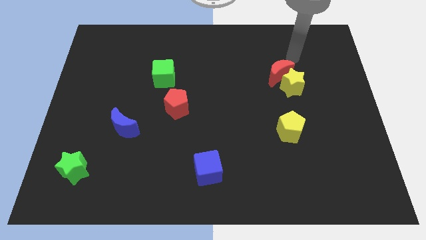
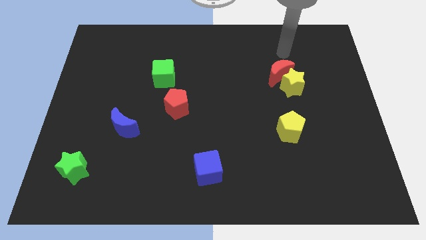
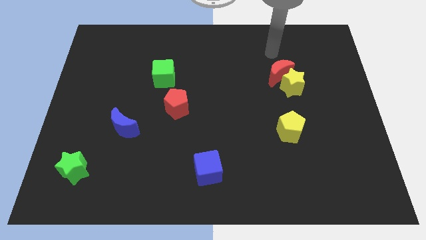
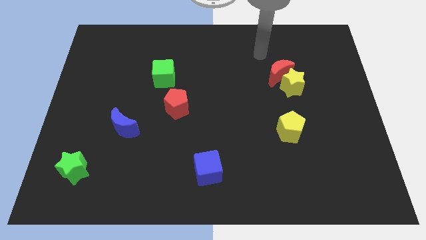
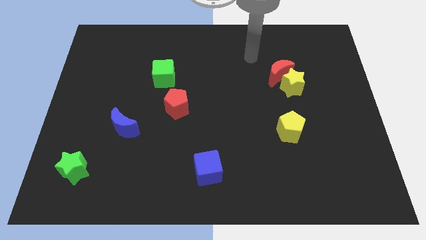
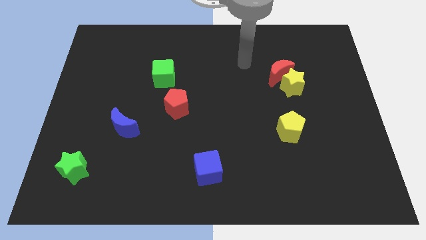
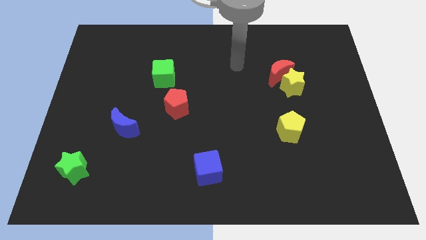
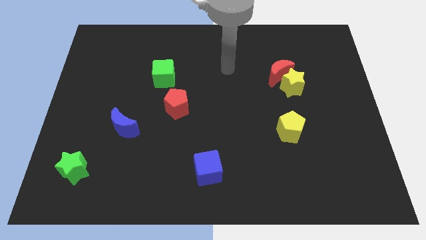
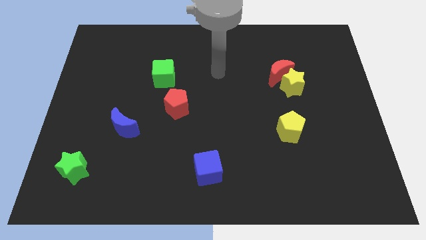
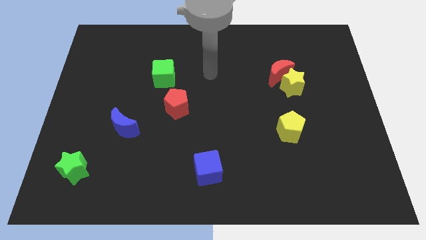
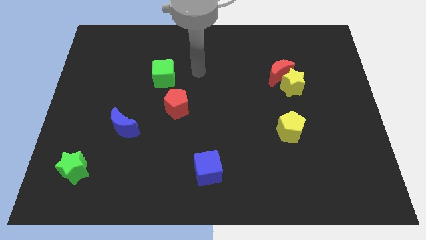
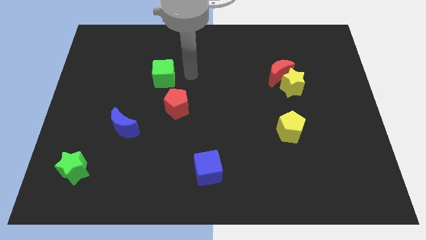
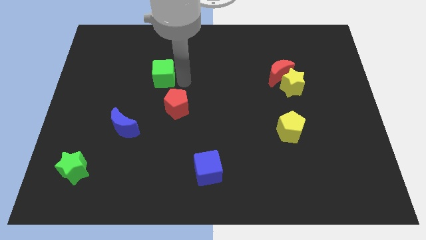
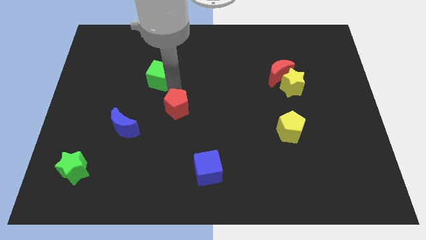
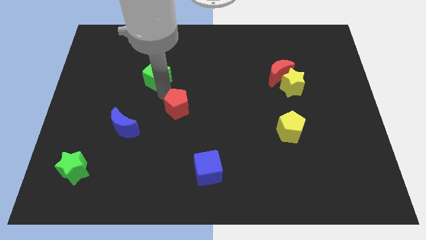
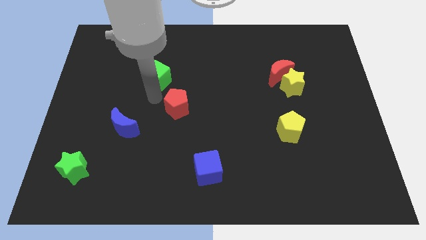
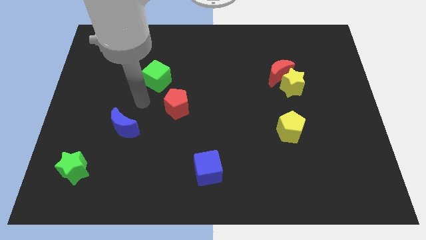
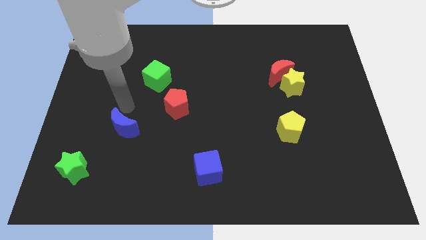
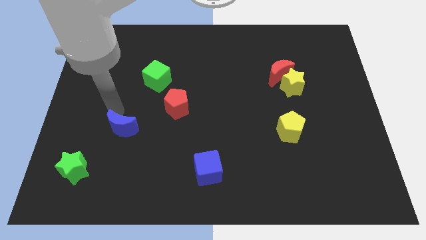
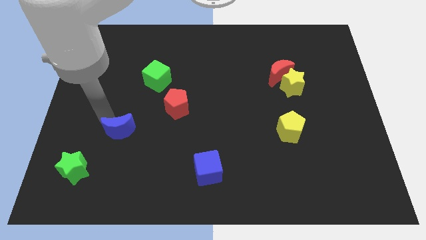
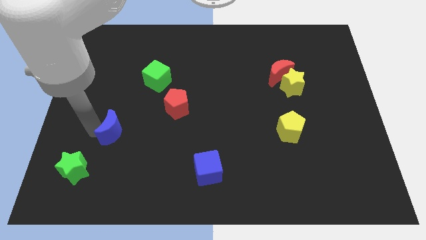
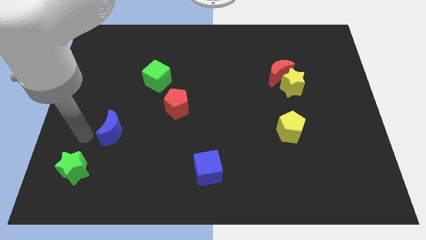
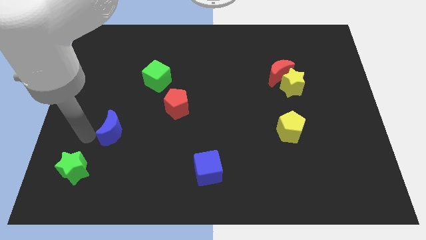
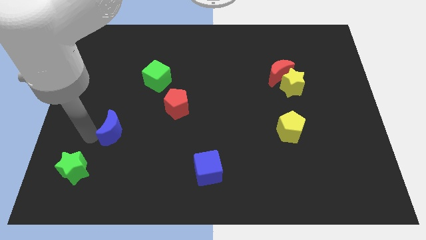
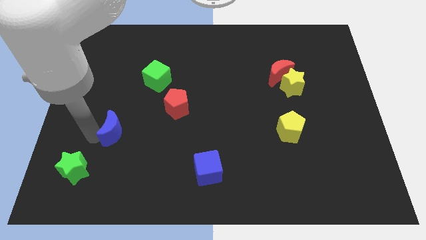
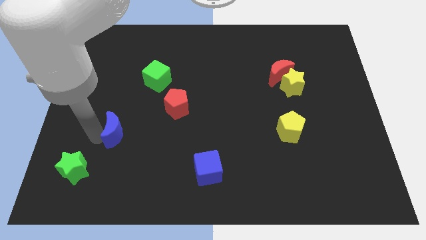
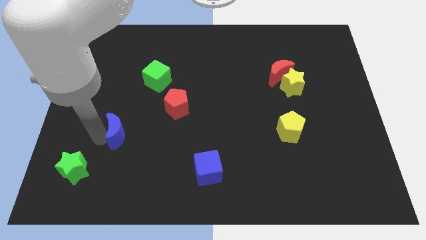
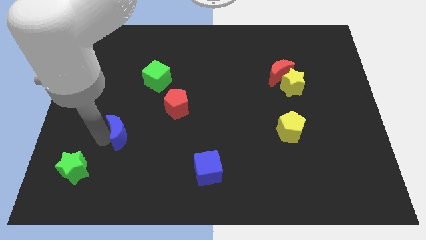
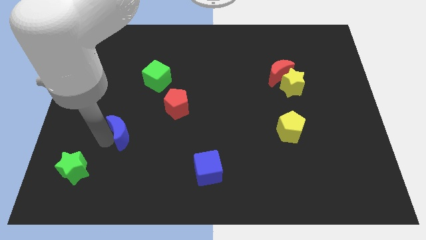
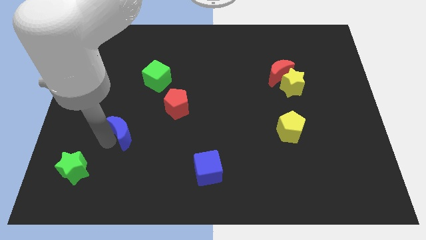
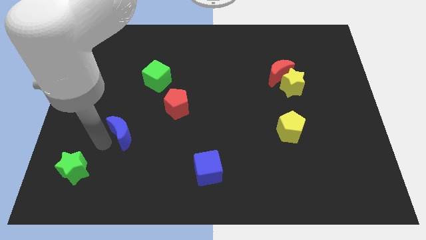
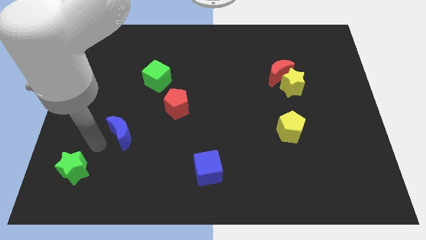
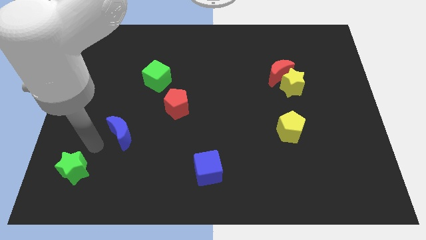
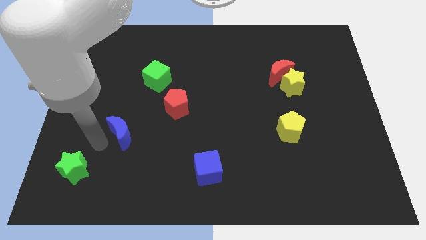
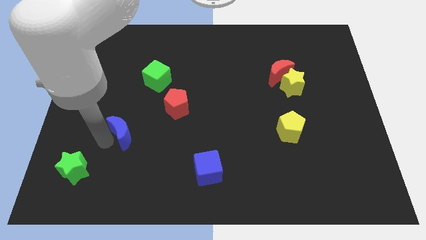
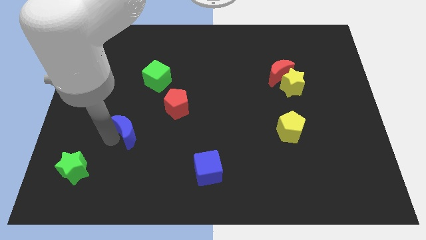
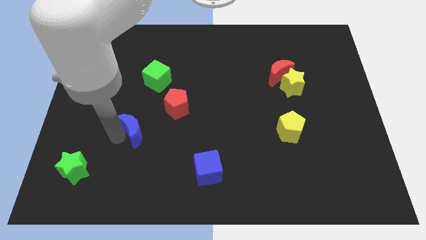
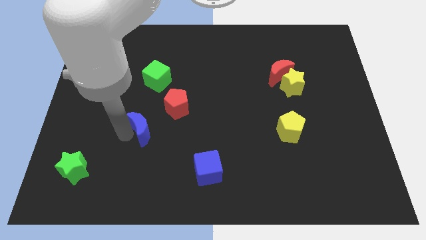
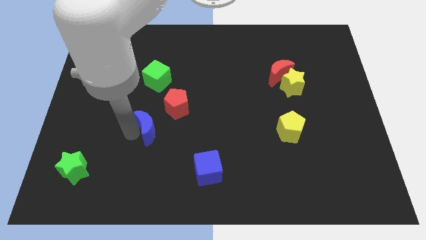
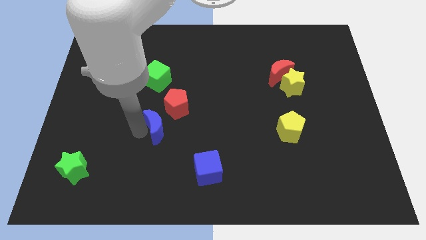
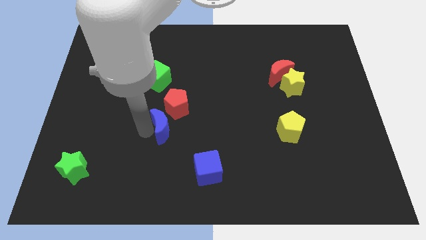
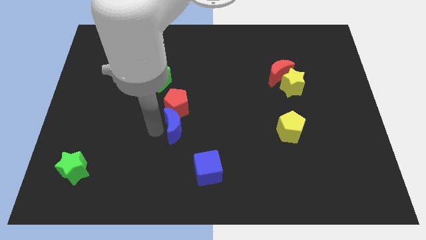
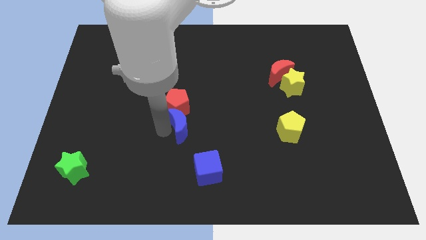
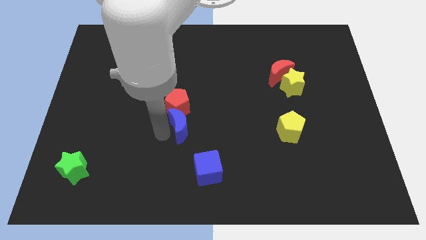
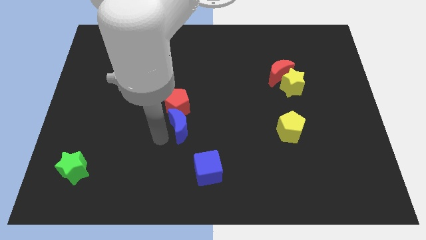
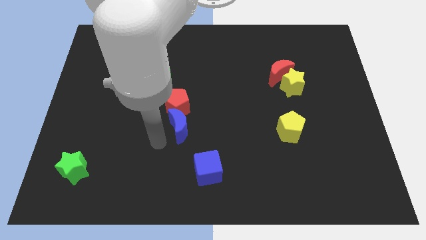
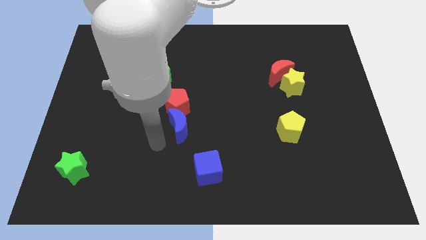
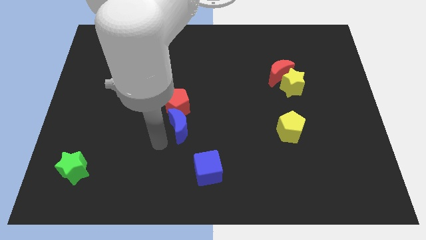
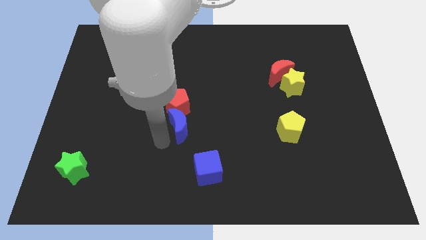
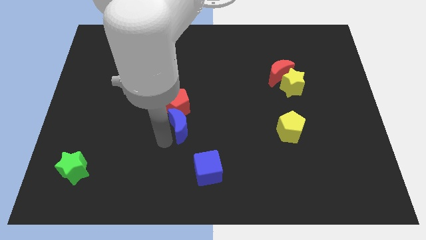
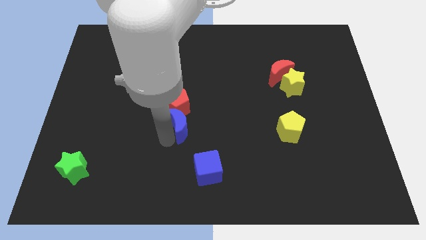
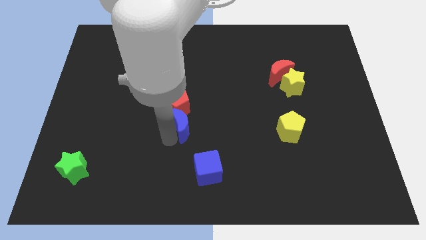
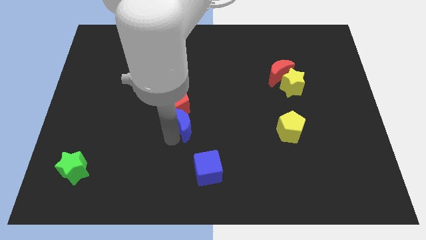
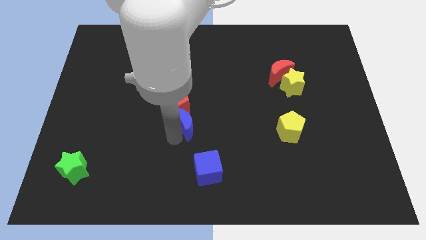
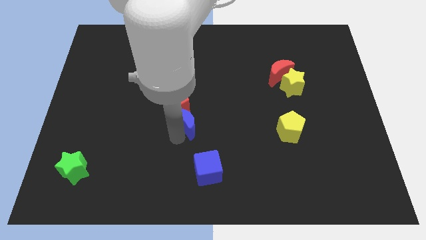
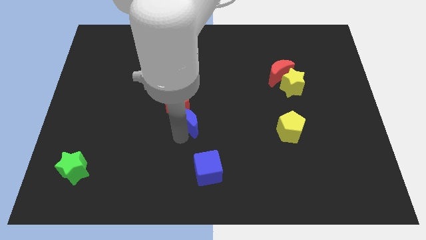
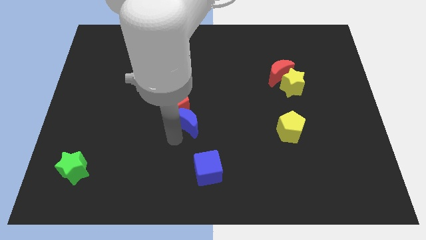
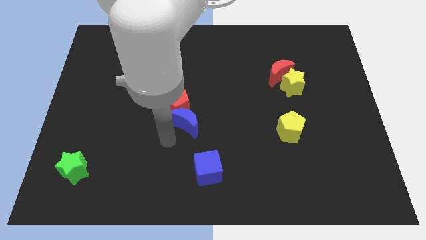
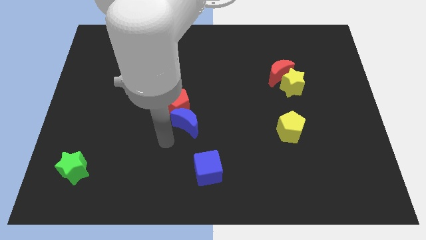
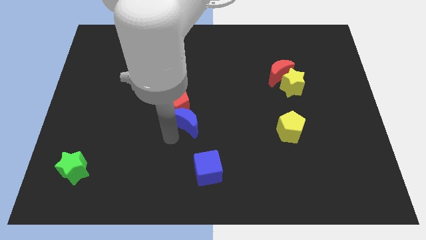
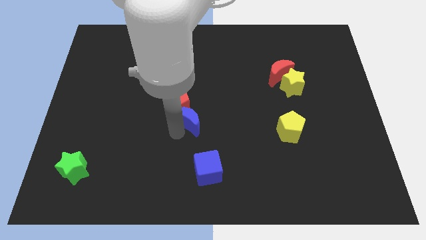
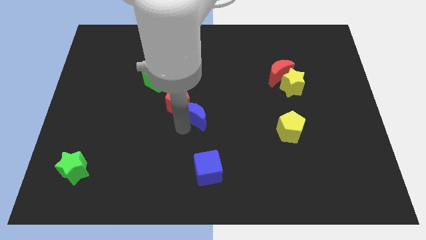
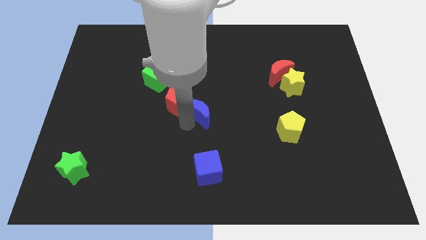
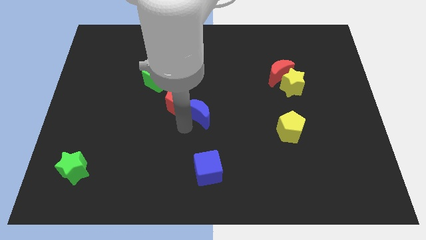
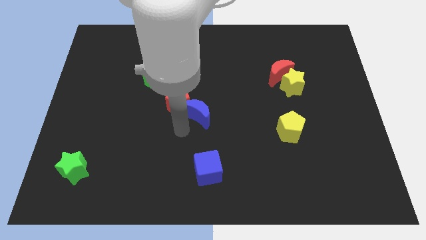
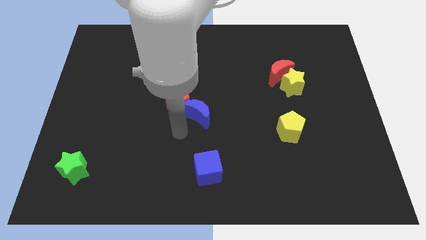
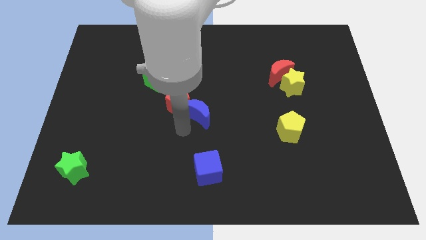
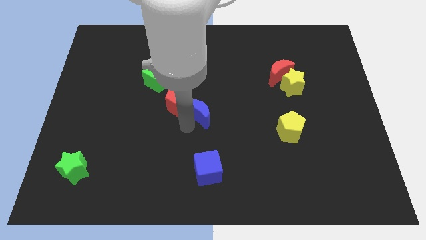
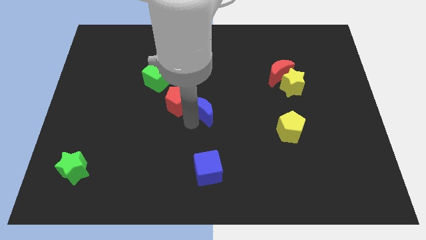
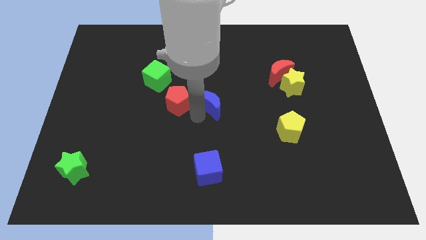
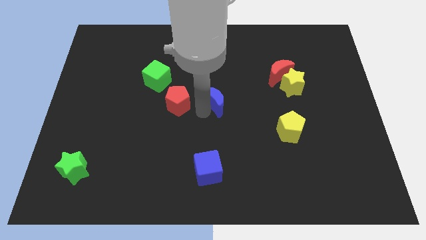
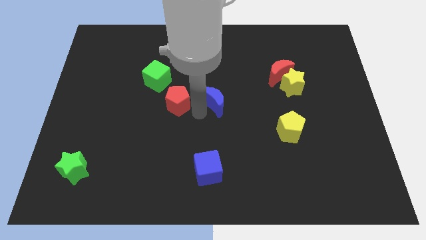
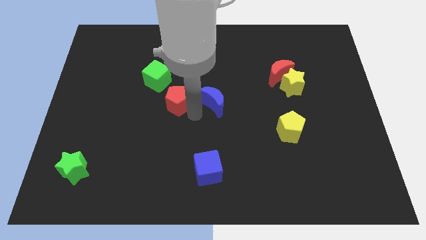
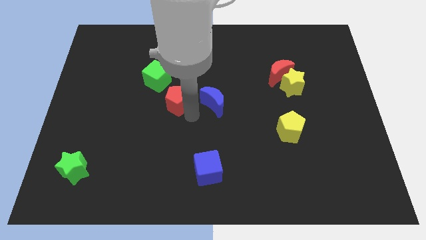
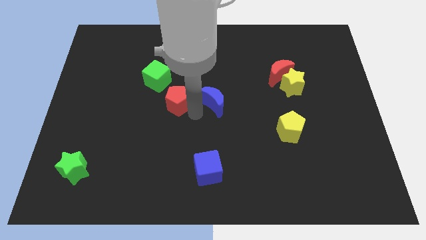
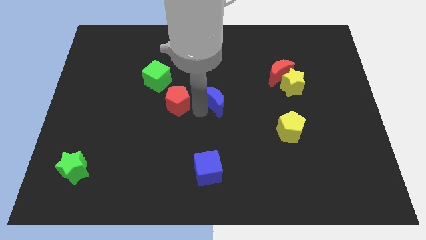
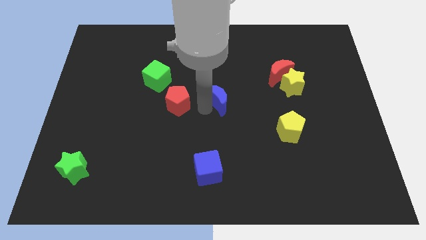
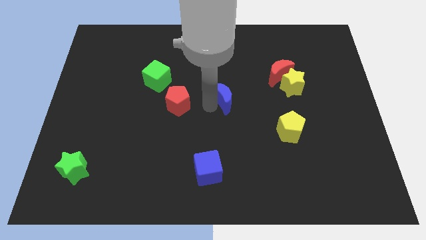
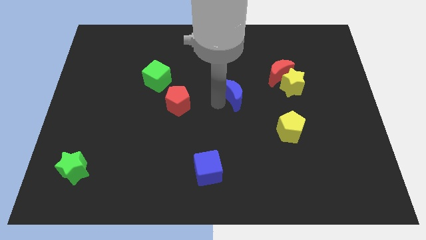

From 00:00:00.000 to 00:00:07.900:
slide the blue moon left of the yellow star
